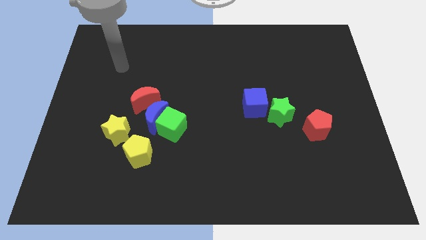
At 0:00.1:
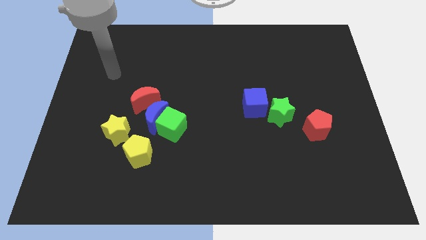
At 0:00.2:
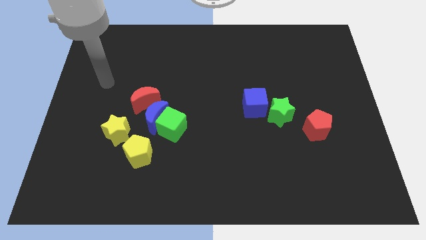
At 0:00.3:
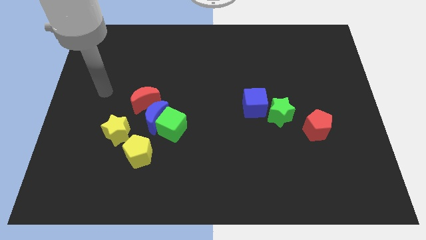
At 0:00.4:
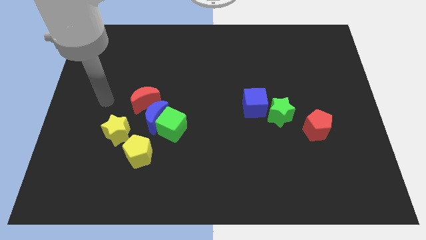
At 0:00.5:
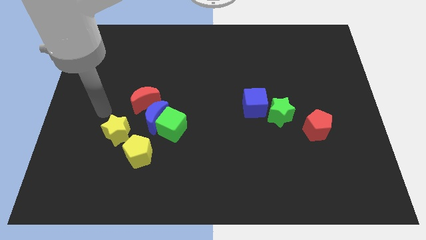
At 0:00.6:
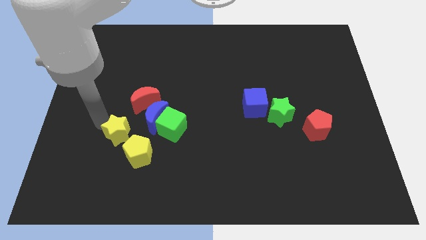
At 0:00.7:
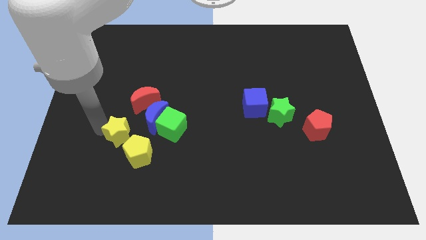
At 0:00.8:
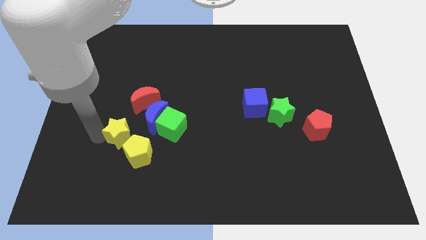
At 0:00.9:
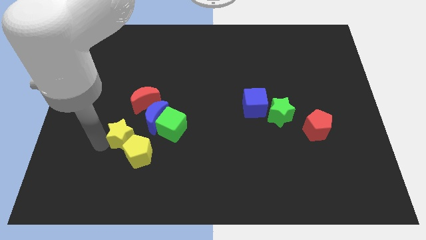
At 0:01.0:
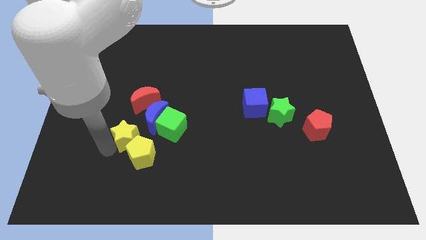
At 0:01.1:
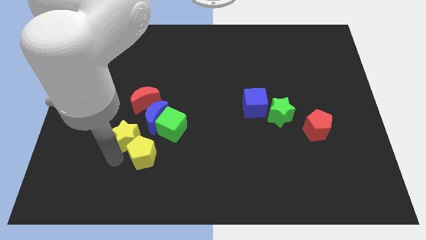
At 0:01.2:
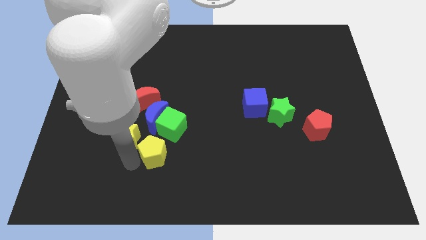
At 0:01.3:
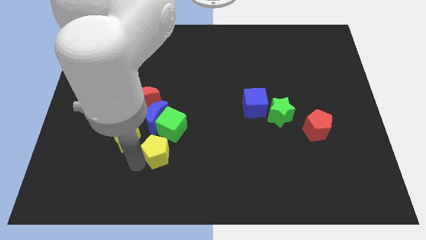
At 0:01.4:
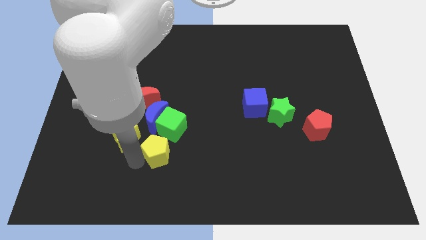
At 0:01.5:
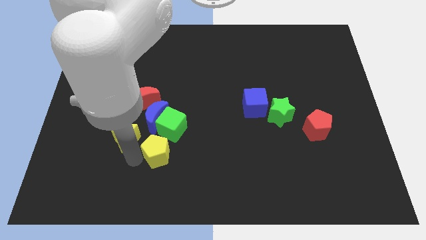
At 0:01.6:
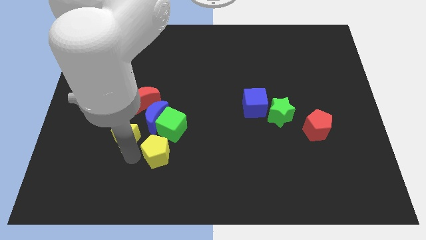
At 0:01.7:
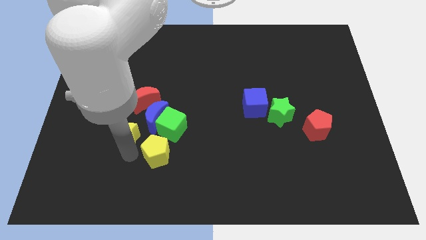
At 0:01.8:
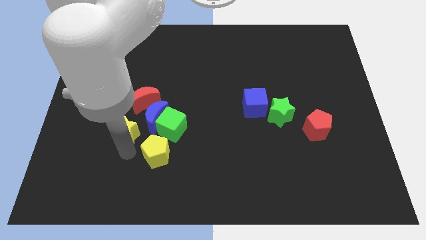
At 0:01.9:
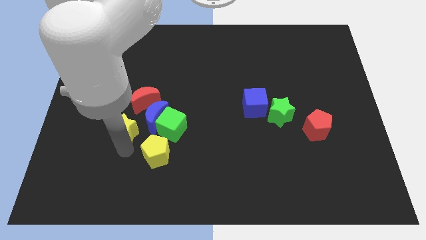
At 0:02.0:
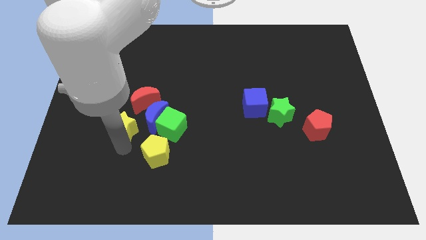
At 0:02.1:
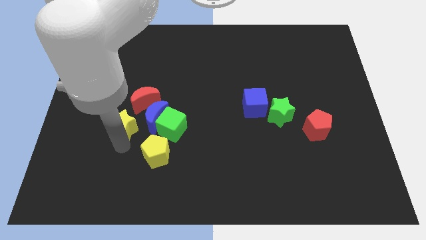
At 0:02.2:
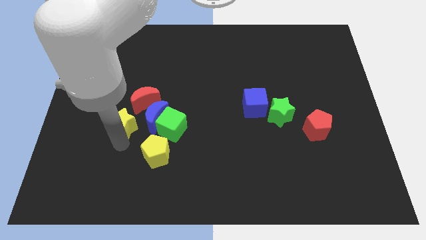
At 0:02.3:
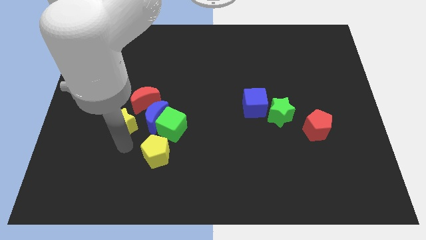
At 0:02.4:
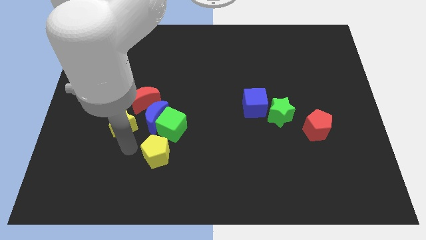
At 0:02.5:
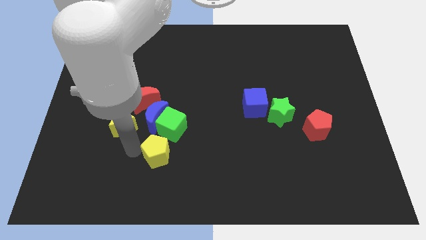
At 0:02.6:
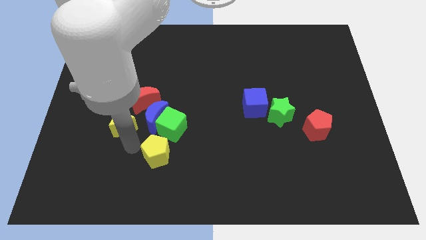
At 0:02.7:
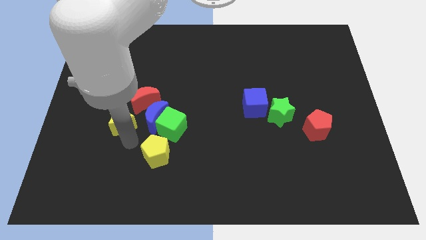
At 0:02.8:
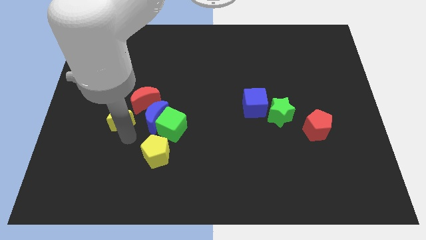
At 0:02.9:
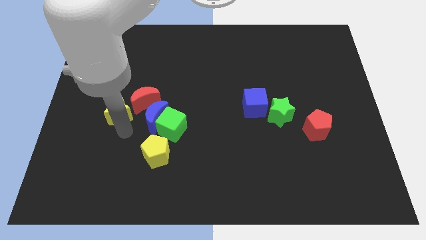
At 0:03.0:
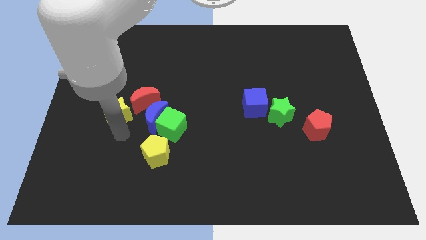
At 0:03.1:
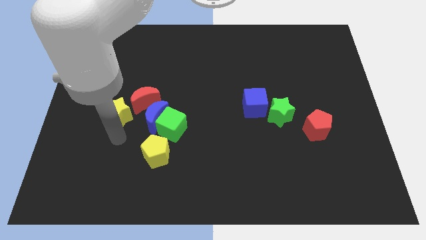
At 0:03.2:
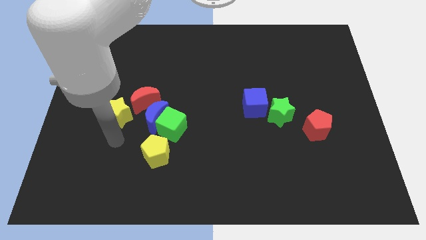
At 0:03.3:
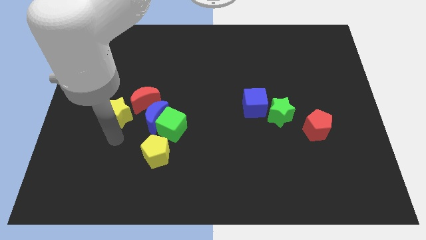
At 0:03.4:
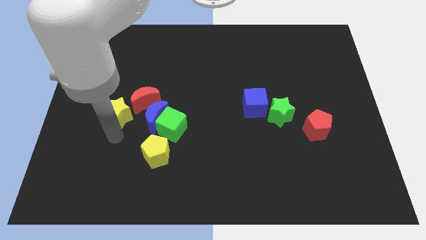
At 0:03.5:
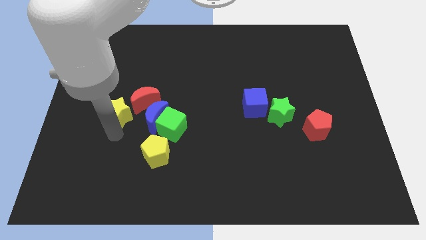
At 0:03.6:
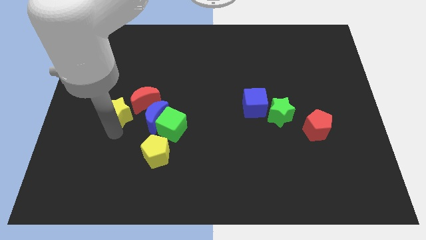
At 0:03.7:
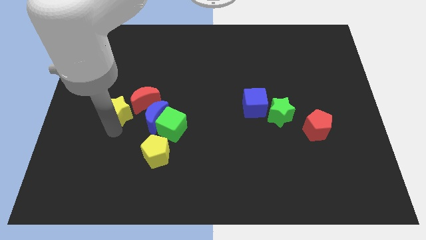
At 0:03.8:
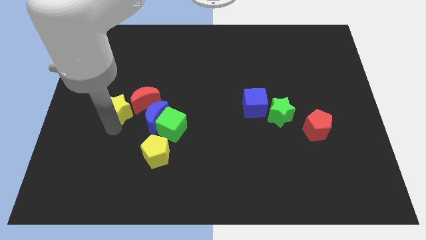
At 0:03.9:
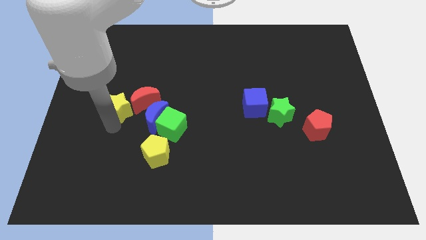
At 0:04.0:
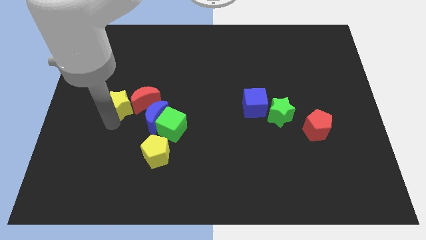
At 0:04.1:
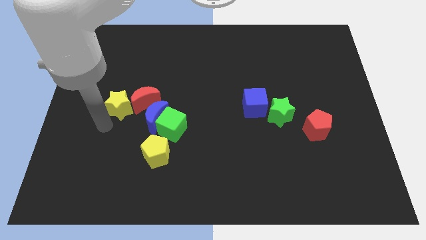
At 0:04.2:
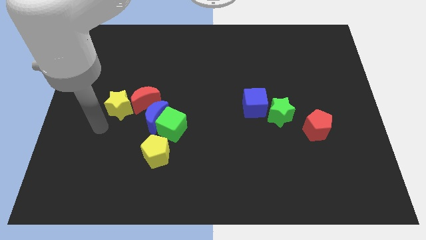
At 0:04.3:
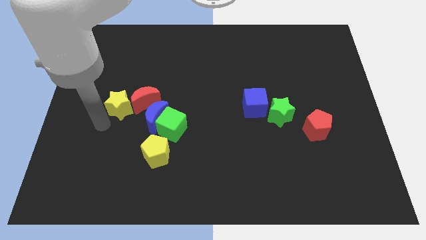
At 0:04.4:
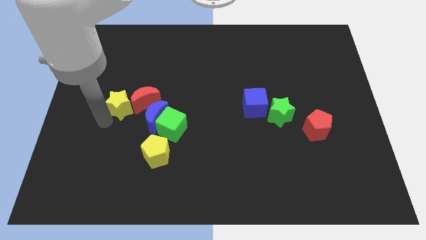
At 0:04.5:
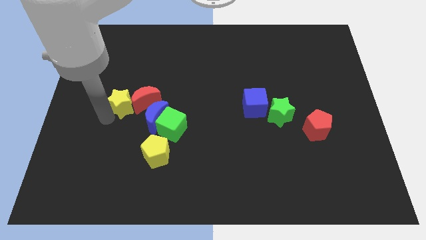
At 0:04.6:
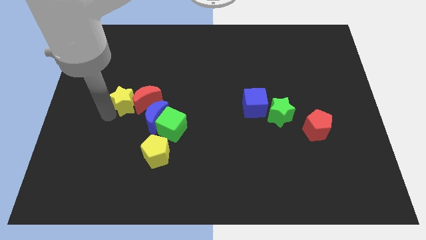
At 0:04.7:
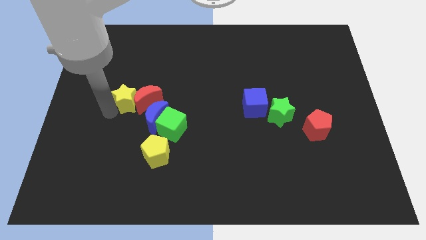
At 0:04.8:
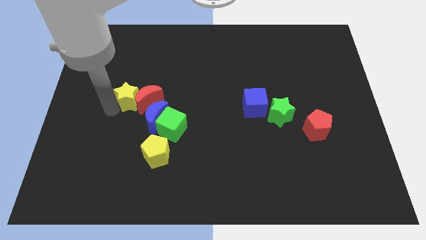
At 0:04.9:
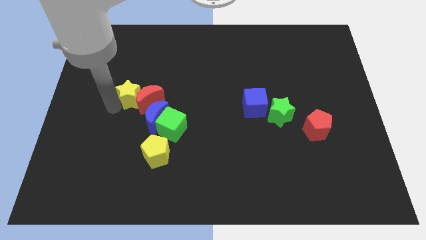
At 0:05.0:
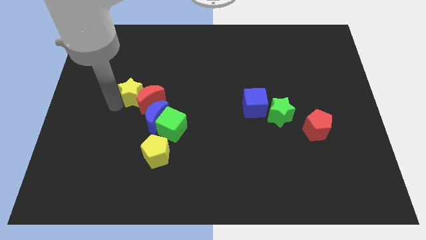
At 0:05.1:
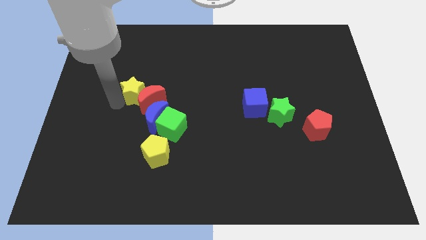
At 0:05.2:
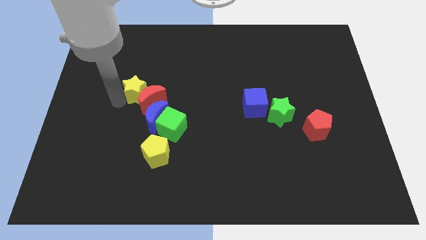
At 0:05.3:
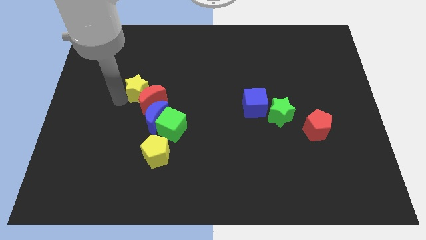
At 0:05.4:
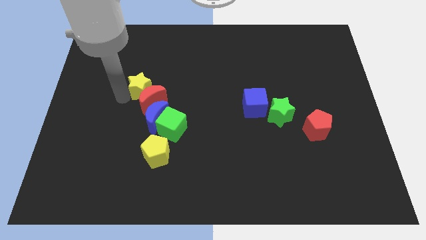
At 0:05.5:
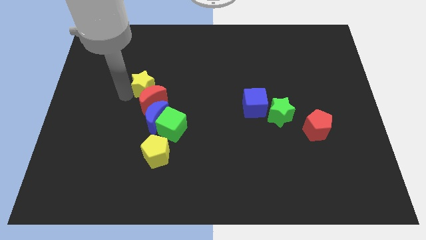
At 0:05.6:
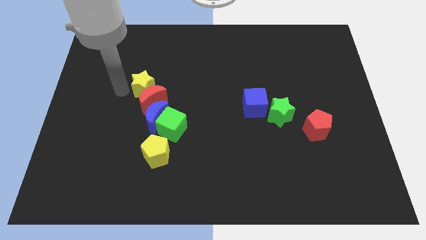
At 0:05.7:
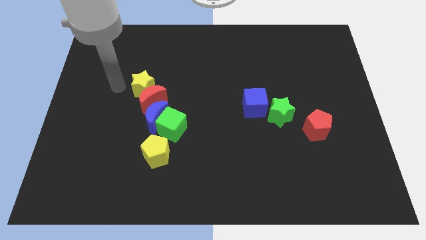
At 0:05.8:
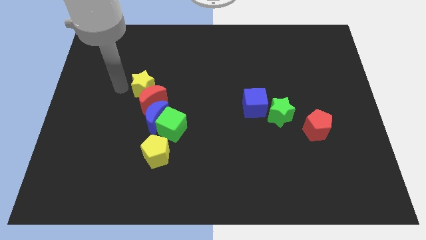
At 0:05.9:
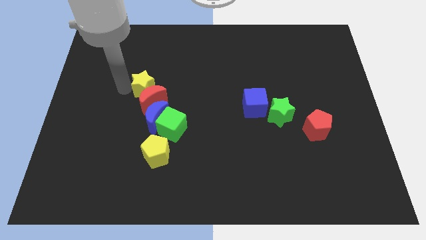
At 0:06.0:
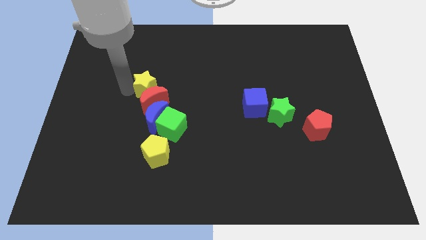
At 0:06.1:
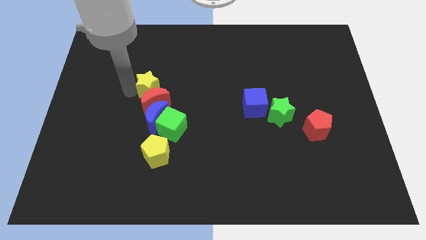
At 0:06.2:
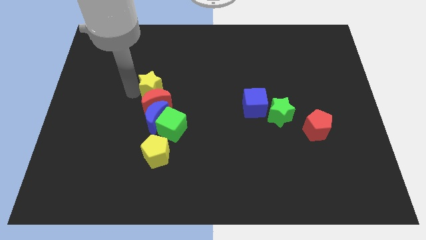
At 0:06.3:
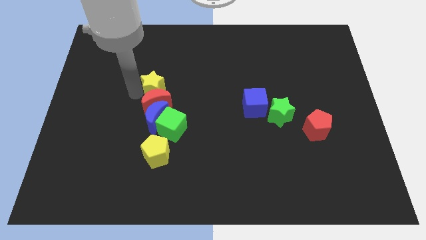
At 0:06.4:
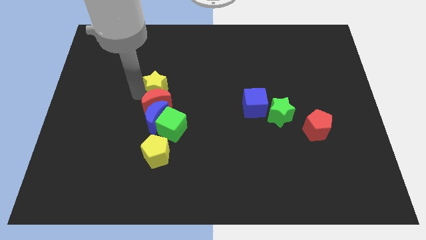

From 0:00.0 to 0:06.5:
push the yellow star to the top side of the green cube

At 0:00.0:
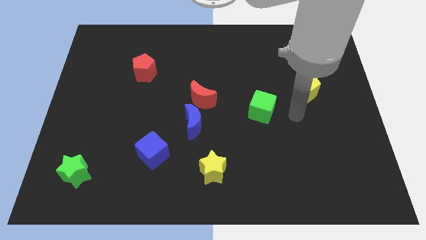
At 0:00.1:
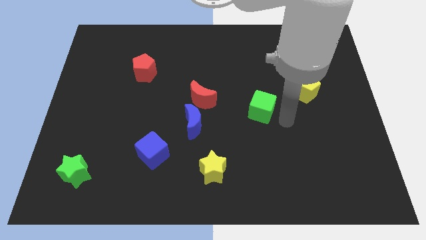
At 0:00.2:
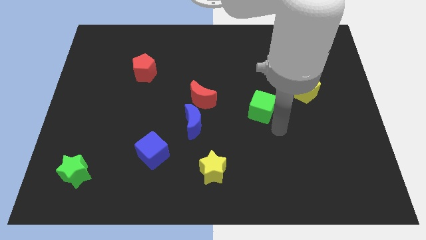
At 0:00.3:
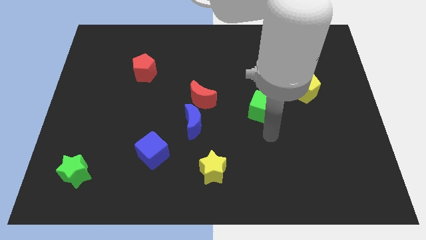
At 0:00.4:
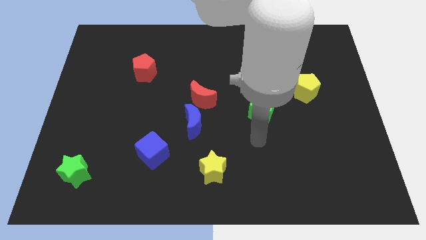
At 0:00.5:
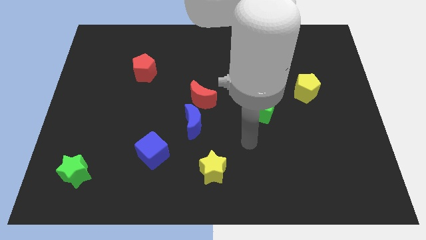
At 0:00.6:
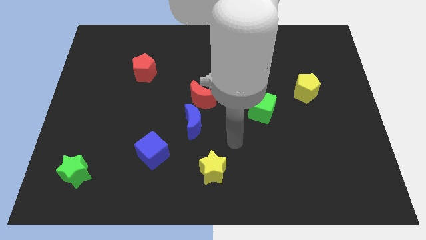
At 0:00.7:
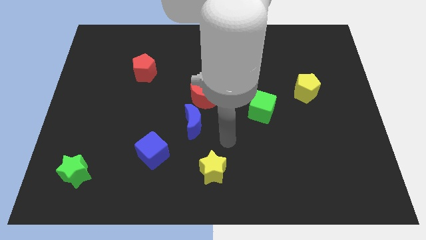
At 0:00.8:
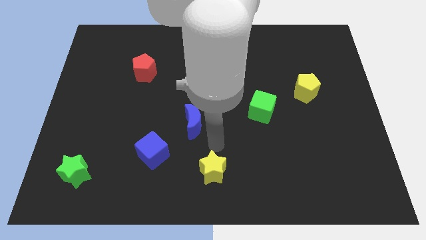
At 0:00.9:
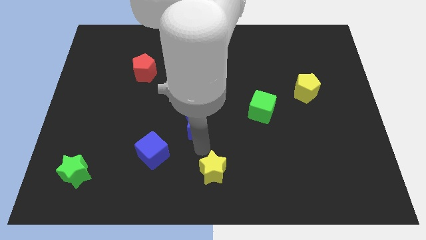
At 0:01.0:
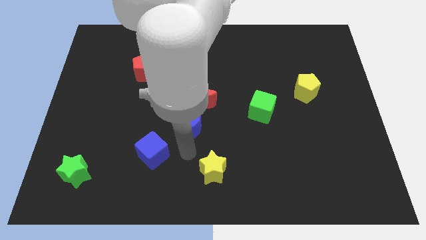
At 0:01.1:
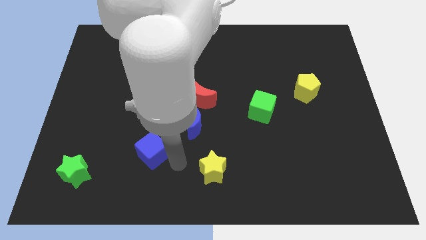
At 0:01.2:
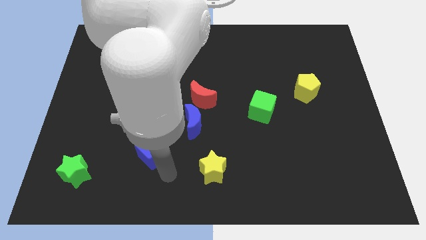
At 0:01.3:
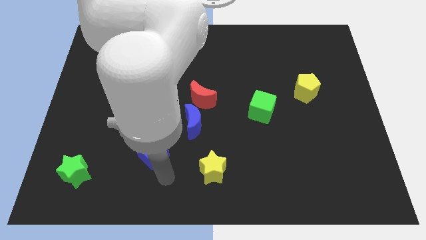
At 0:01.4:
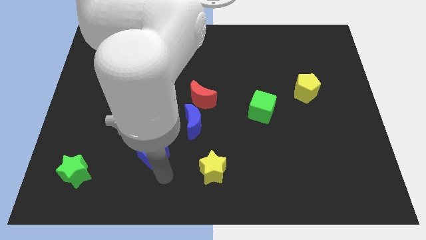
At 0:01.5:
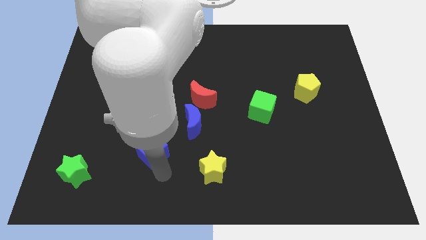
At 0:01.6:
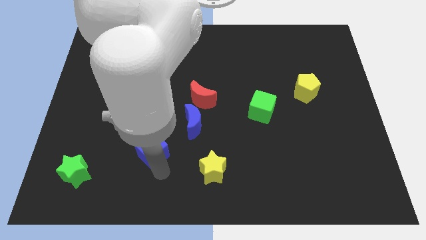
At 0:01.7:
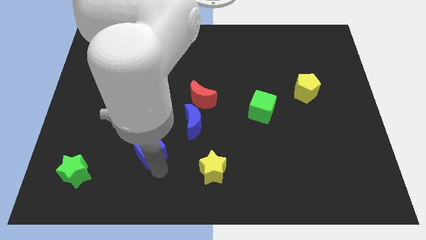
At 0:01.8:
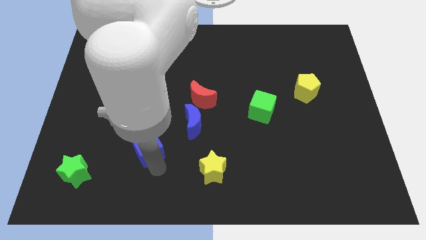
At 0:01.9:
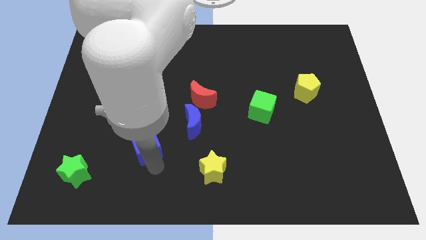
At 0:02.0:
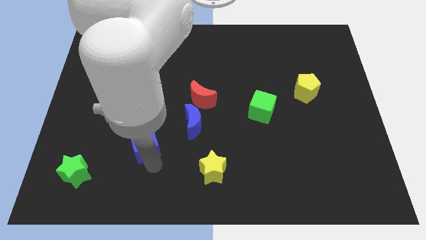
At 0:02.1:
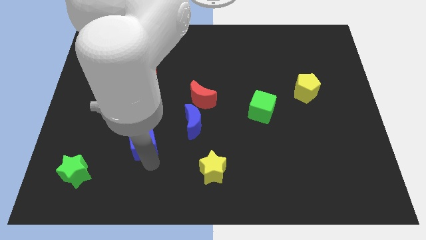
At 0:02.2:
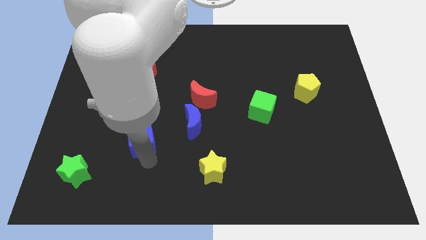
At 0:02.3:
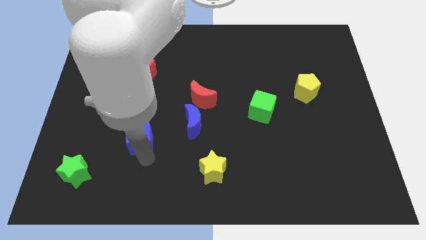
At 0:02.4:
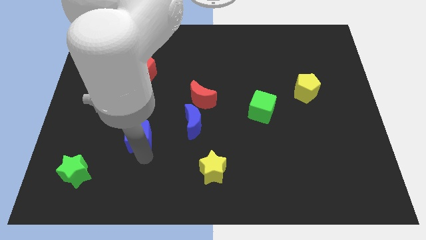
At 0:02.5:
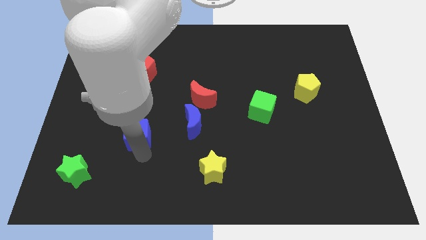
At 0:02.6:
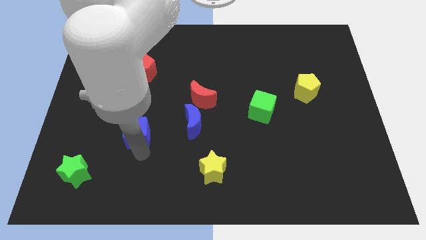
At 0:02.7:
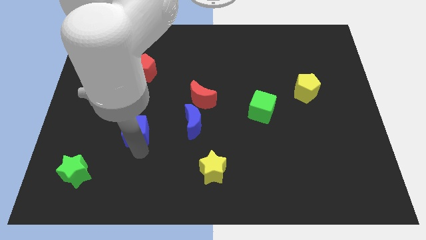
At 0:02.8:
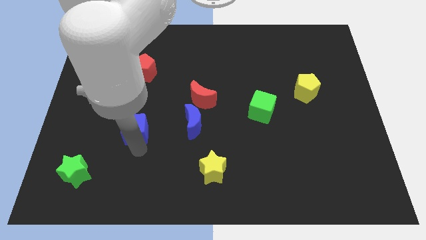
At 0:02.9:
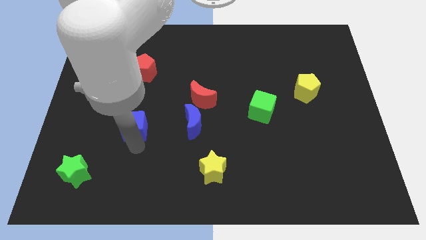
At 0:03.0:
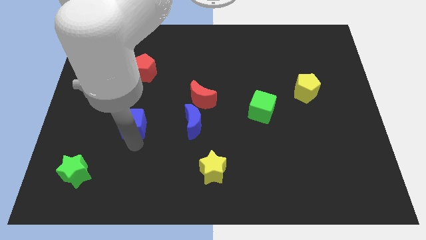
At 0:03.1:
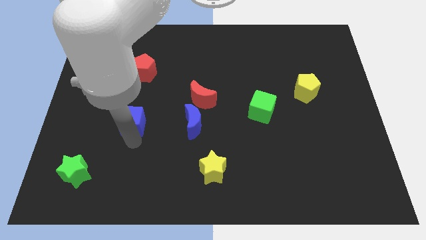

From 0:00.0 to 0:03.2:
push the blue cube below the red pentagon
